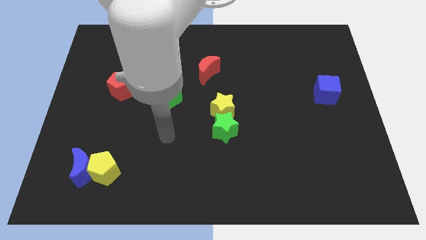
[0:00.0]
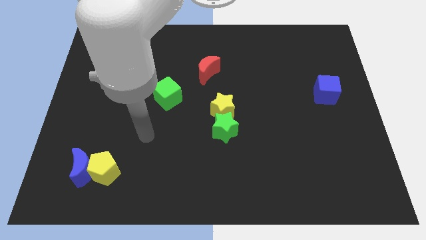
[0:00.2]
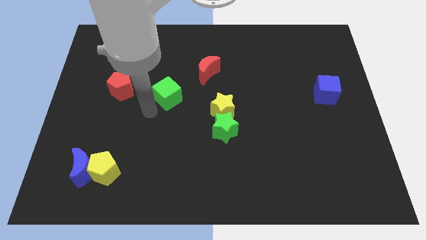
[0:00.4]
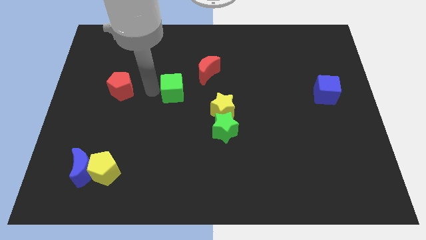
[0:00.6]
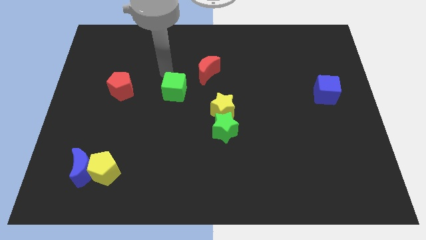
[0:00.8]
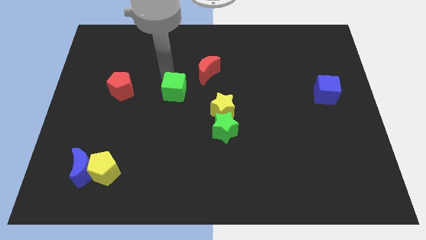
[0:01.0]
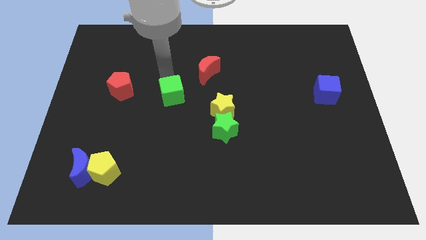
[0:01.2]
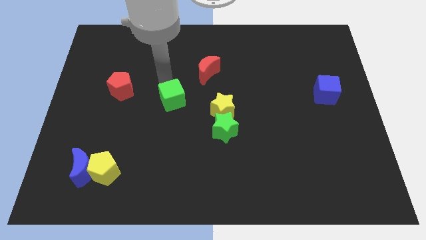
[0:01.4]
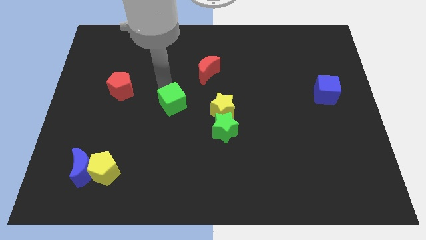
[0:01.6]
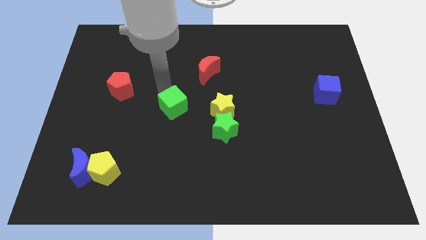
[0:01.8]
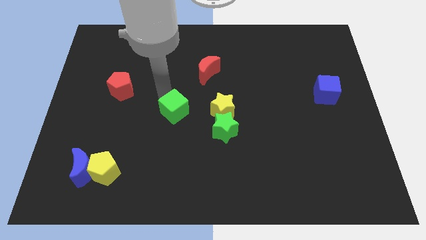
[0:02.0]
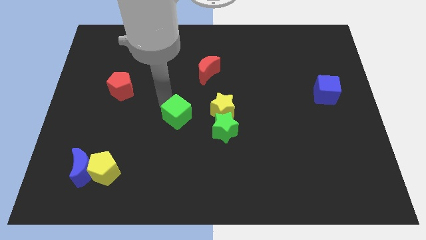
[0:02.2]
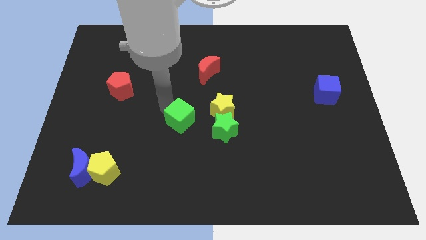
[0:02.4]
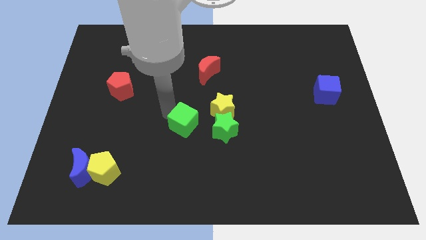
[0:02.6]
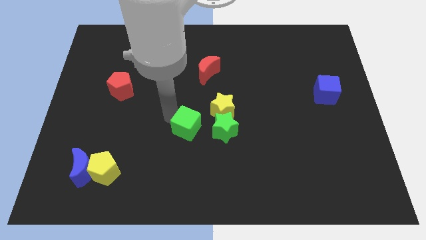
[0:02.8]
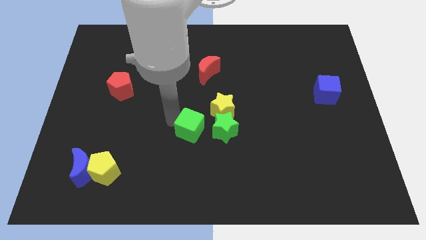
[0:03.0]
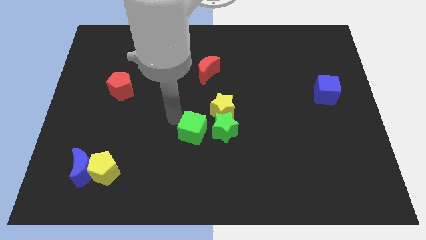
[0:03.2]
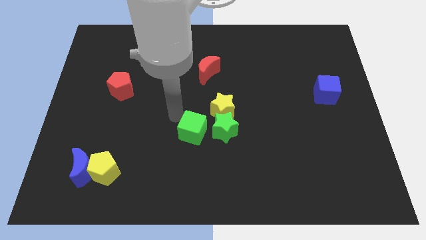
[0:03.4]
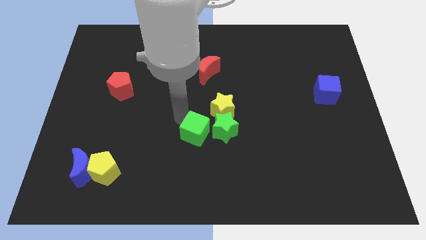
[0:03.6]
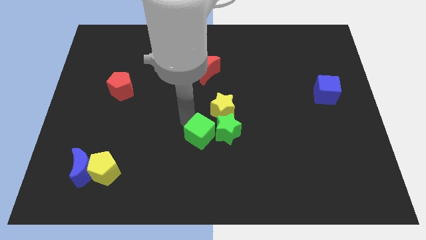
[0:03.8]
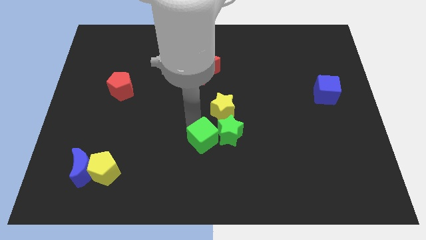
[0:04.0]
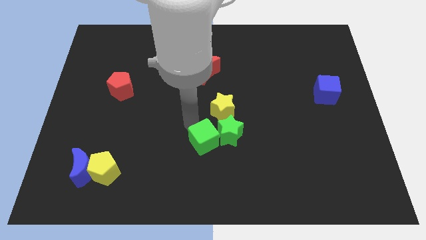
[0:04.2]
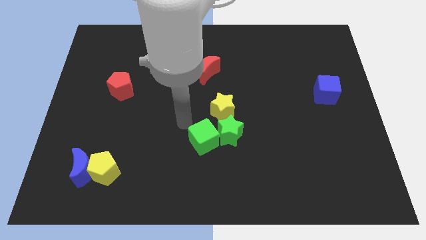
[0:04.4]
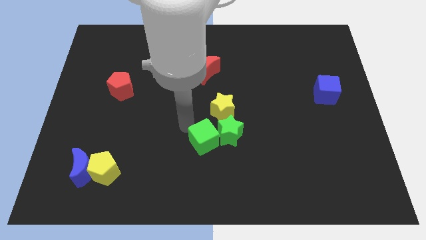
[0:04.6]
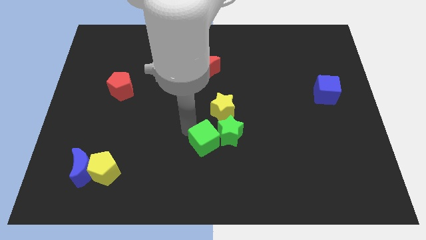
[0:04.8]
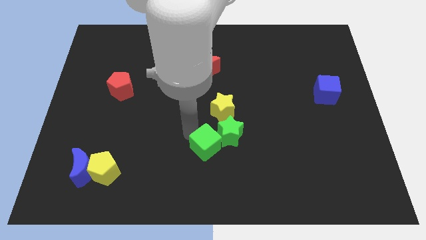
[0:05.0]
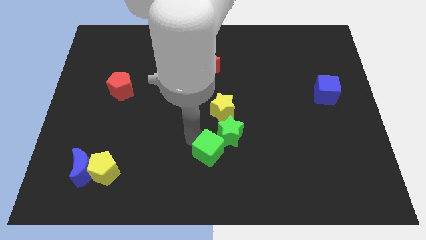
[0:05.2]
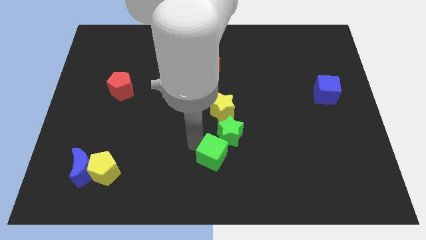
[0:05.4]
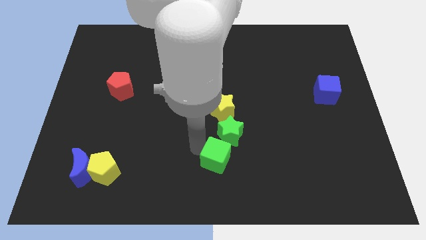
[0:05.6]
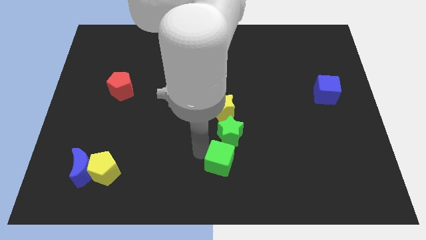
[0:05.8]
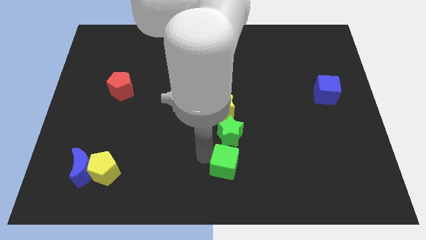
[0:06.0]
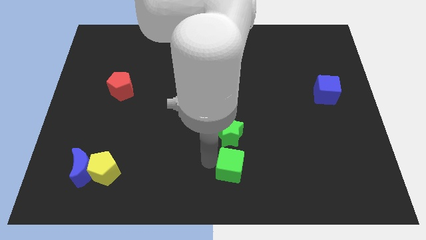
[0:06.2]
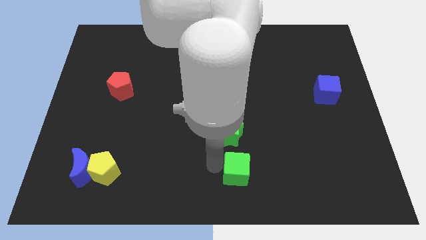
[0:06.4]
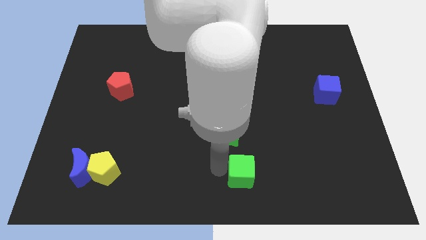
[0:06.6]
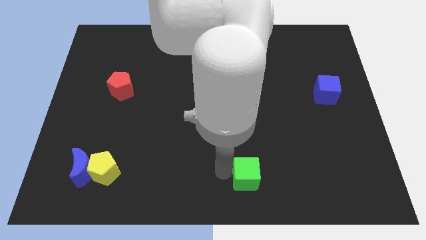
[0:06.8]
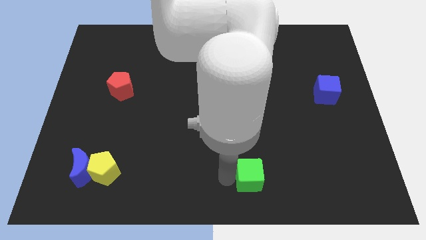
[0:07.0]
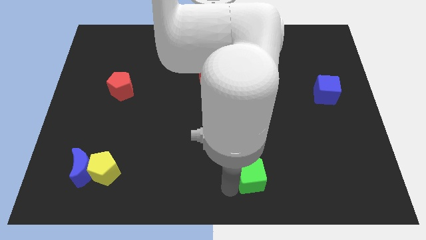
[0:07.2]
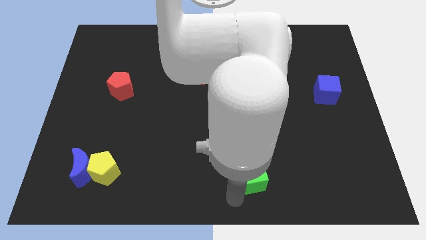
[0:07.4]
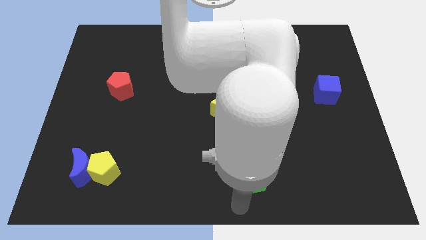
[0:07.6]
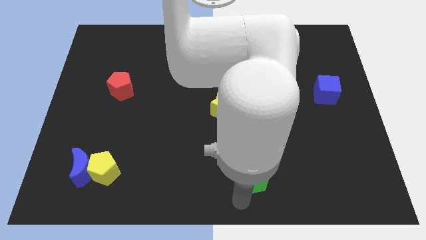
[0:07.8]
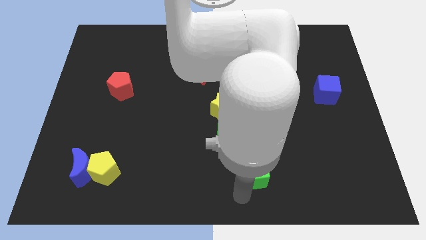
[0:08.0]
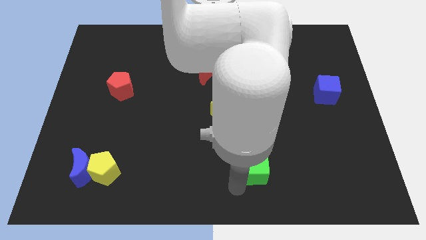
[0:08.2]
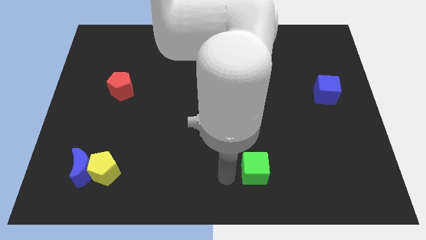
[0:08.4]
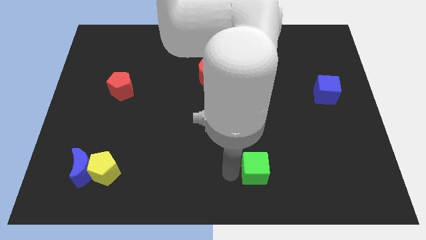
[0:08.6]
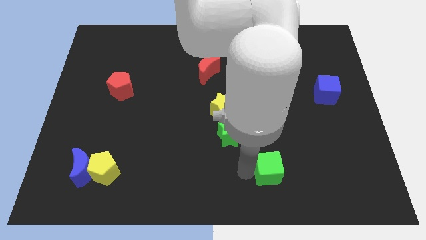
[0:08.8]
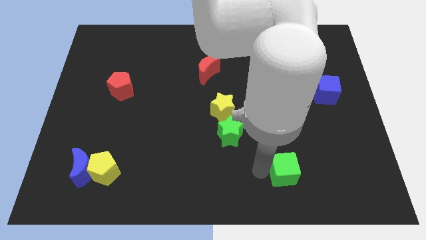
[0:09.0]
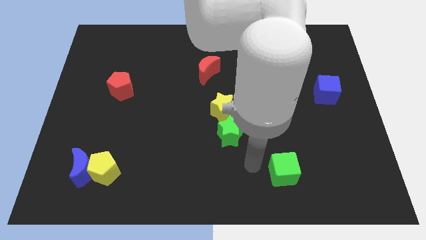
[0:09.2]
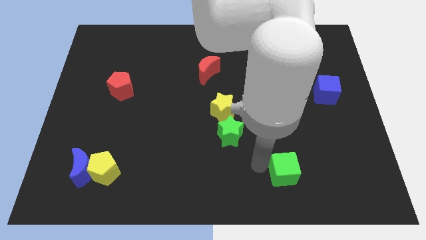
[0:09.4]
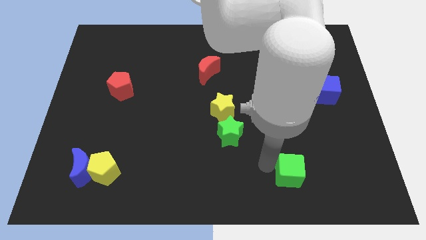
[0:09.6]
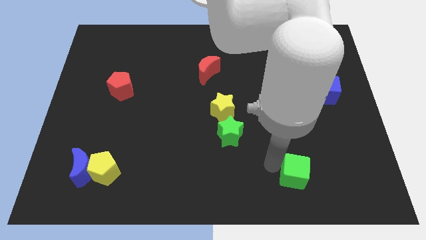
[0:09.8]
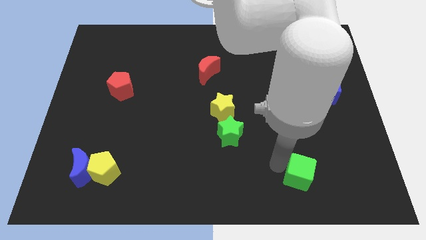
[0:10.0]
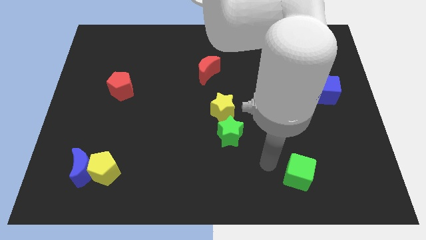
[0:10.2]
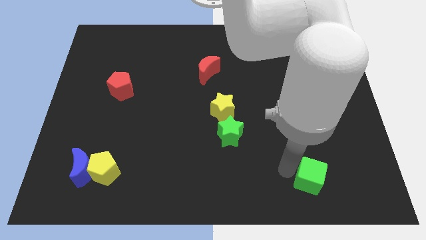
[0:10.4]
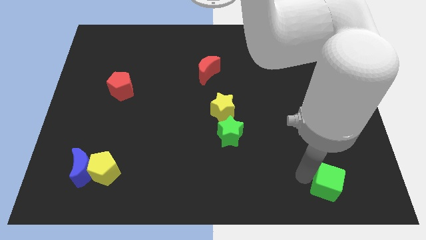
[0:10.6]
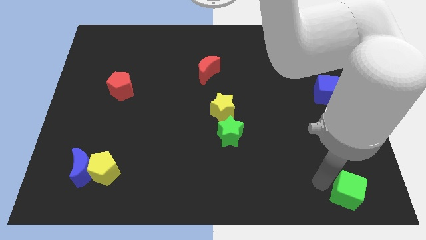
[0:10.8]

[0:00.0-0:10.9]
slide the green cube to the bottom right of the board

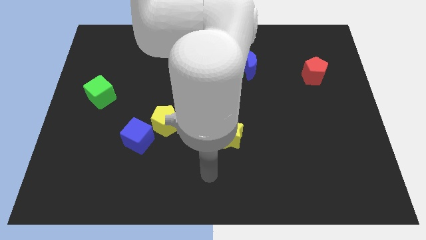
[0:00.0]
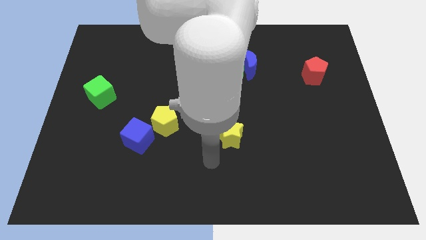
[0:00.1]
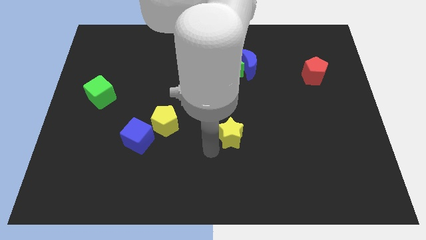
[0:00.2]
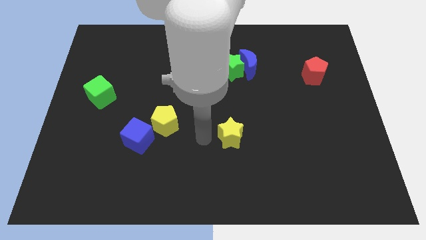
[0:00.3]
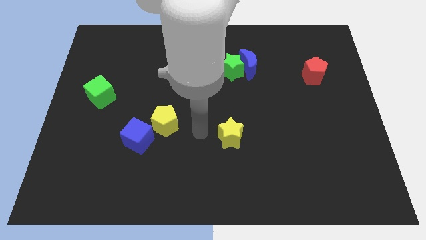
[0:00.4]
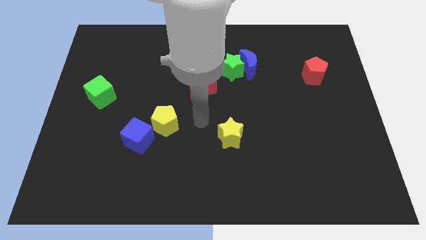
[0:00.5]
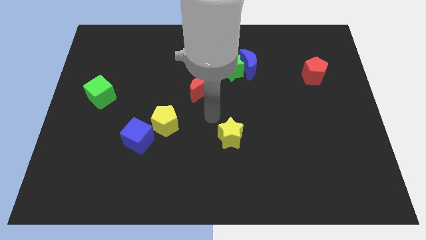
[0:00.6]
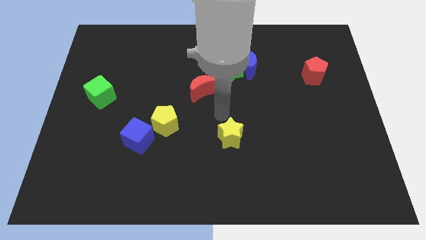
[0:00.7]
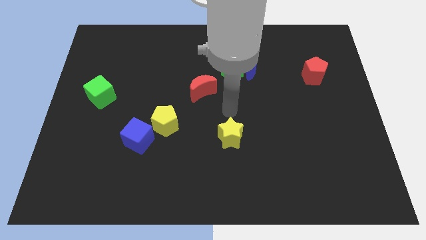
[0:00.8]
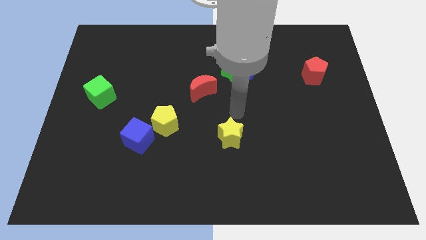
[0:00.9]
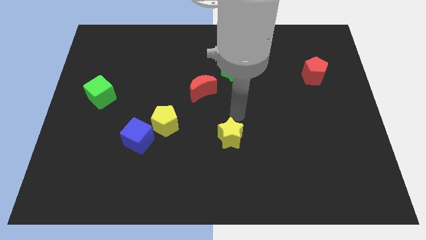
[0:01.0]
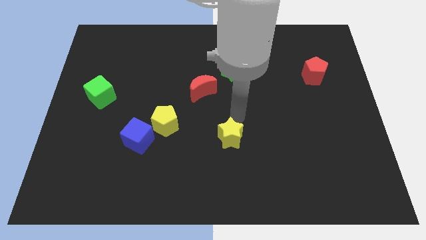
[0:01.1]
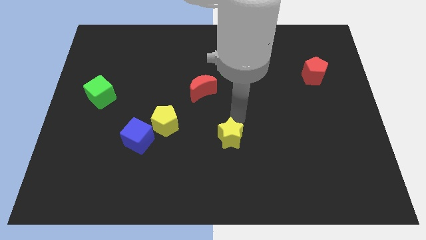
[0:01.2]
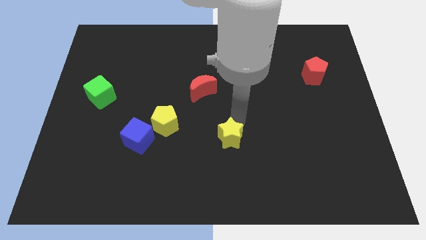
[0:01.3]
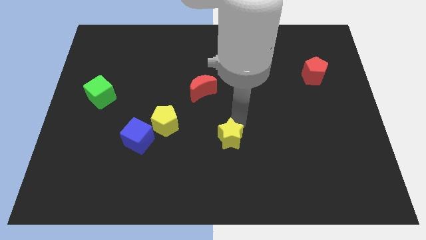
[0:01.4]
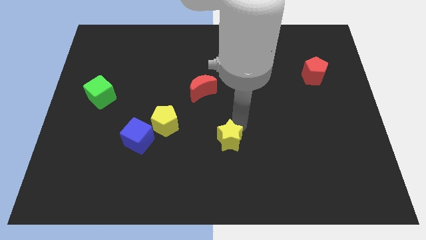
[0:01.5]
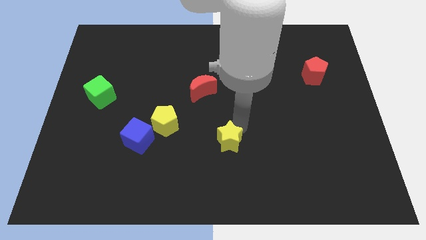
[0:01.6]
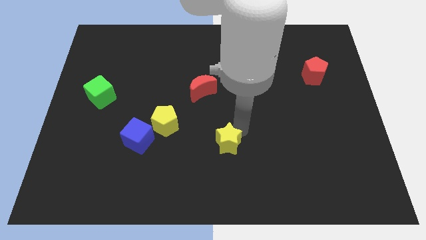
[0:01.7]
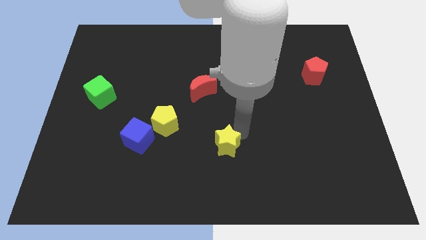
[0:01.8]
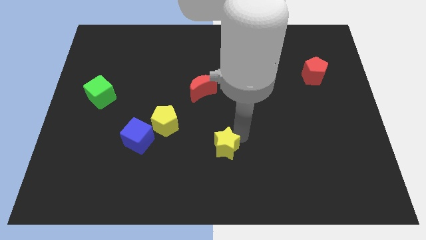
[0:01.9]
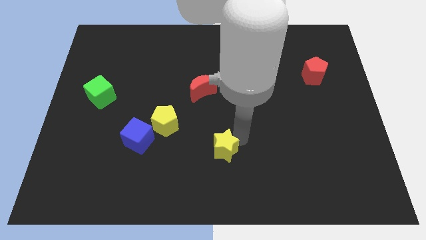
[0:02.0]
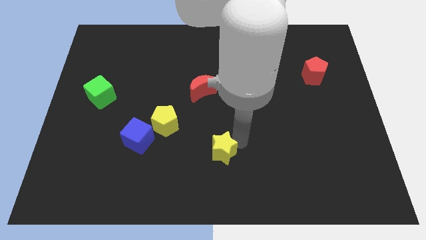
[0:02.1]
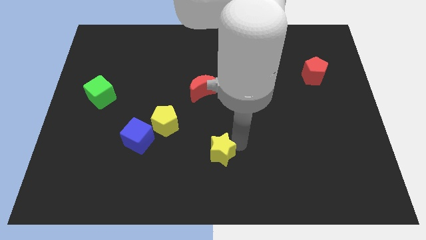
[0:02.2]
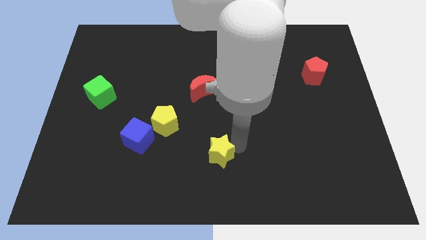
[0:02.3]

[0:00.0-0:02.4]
slide the yellow star to the bottom side
